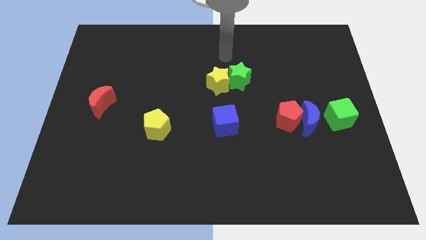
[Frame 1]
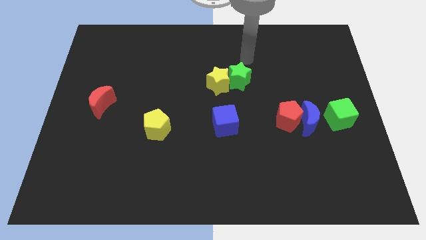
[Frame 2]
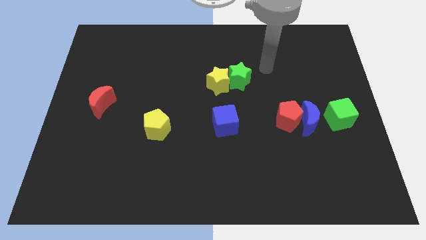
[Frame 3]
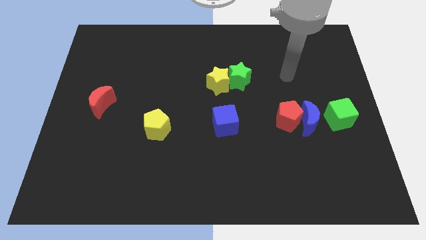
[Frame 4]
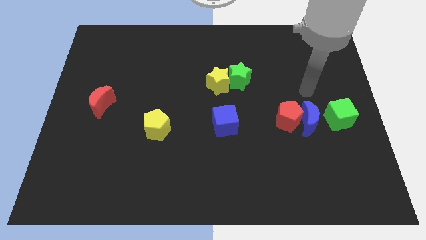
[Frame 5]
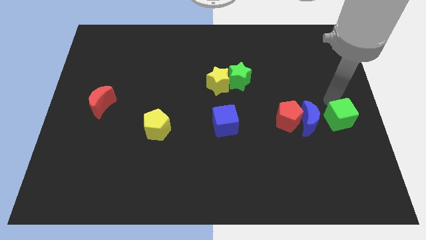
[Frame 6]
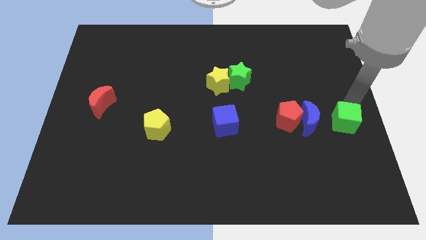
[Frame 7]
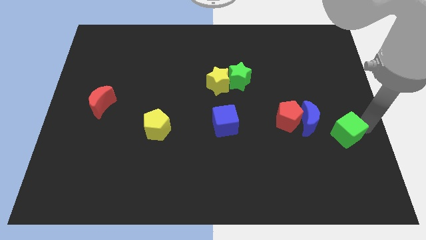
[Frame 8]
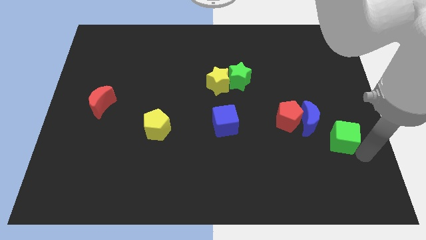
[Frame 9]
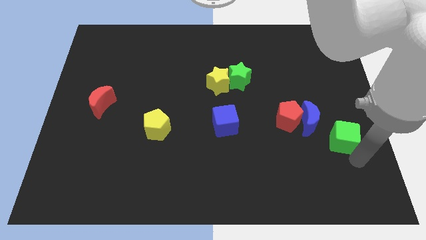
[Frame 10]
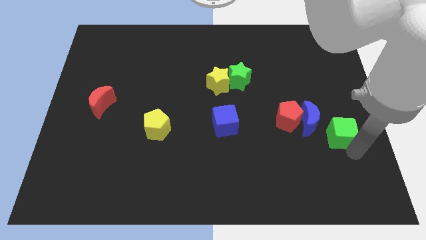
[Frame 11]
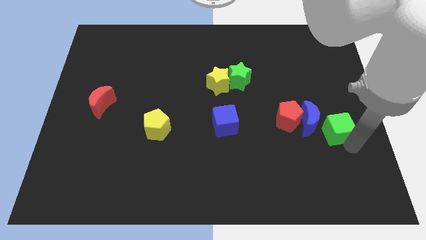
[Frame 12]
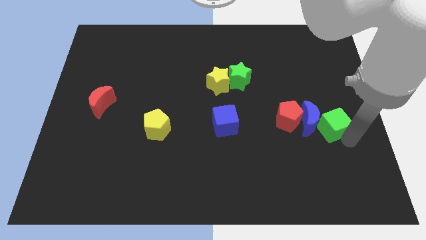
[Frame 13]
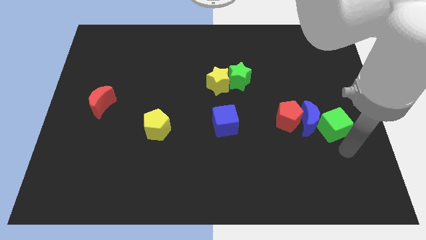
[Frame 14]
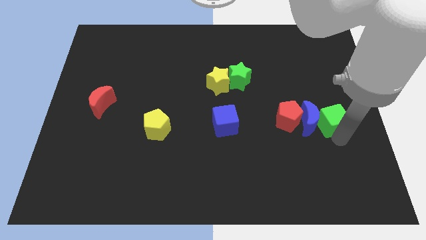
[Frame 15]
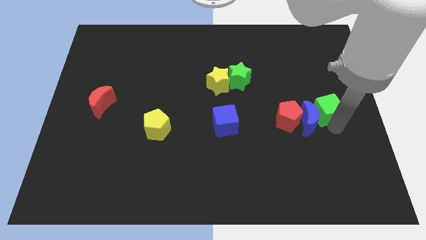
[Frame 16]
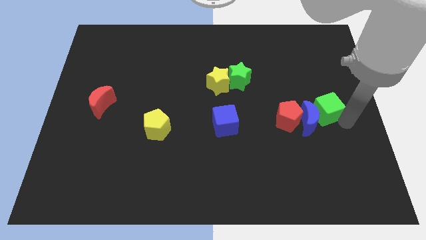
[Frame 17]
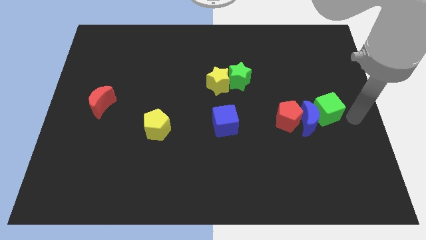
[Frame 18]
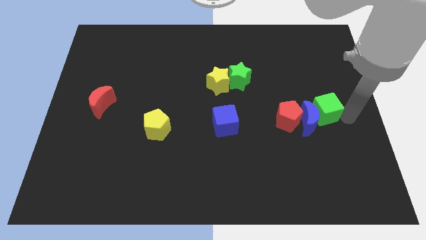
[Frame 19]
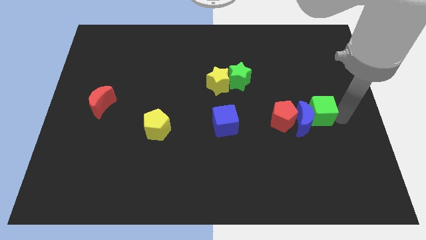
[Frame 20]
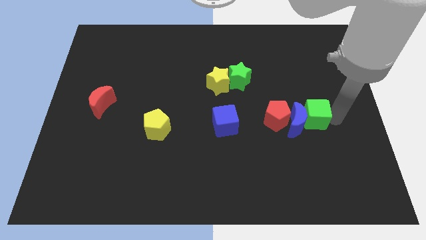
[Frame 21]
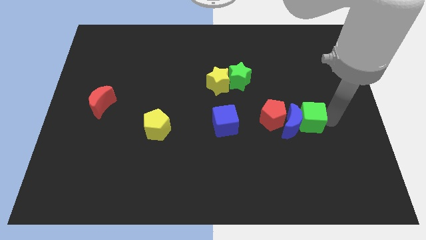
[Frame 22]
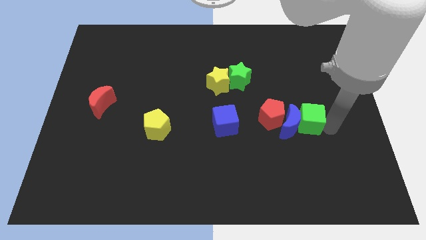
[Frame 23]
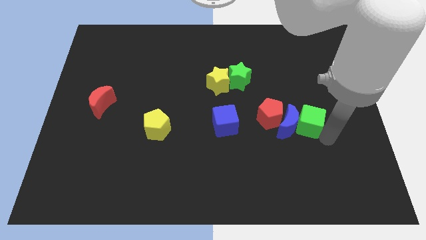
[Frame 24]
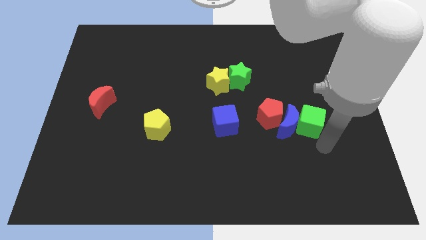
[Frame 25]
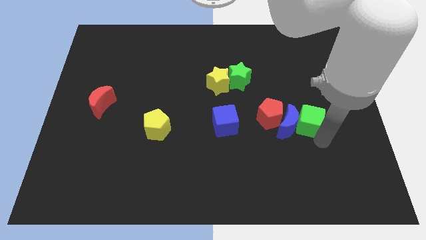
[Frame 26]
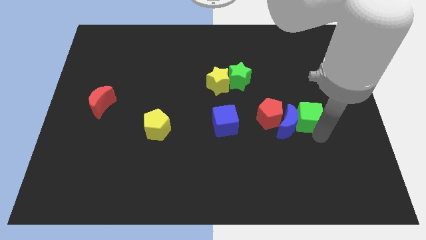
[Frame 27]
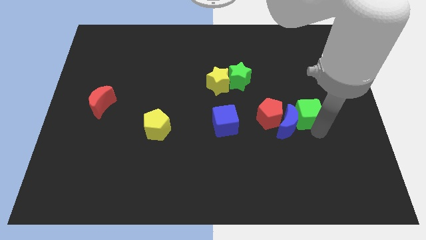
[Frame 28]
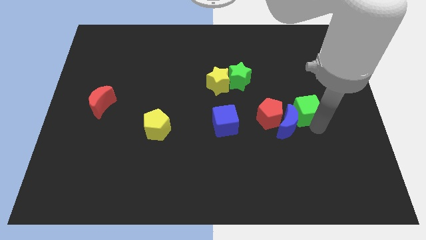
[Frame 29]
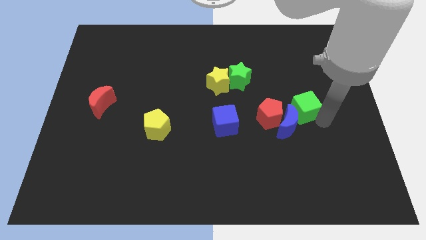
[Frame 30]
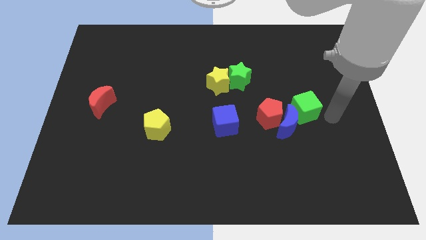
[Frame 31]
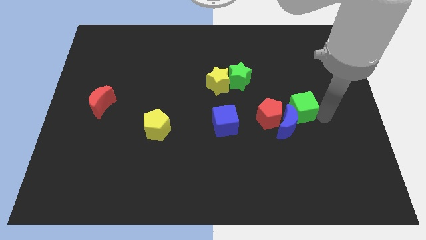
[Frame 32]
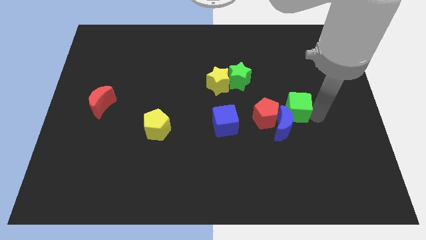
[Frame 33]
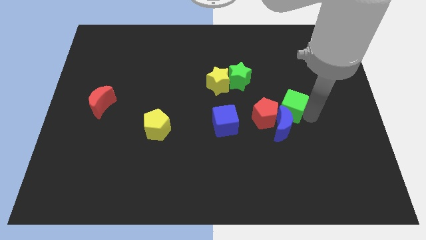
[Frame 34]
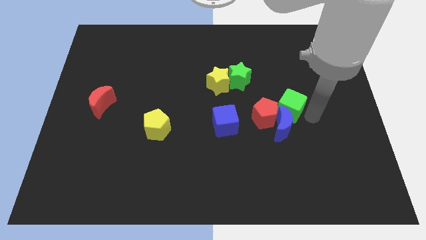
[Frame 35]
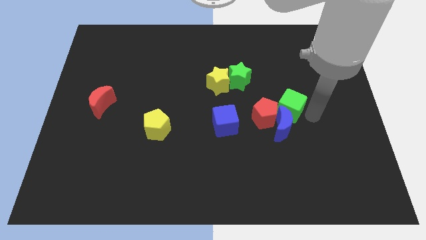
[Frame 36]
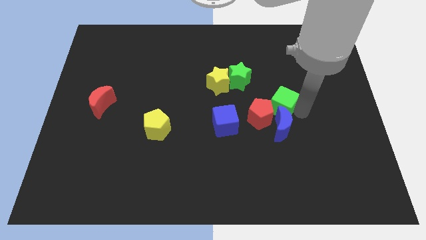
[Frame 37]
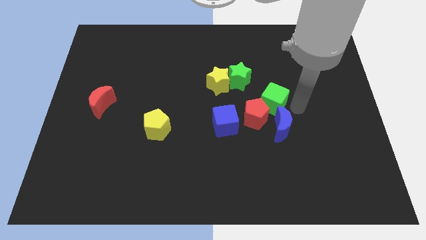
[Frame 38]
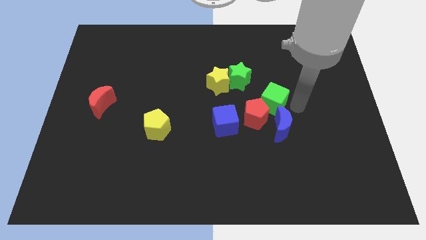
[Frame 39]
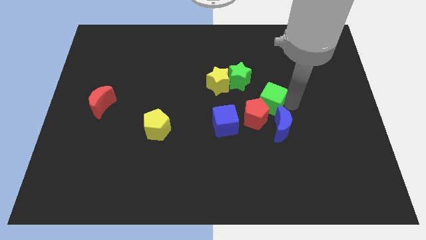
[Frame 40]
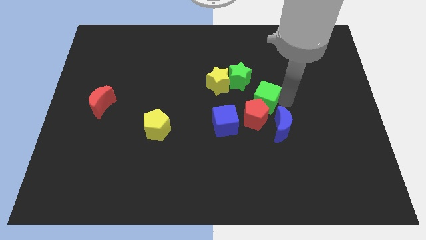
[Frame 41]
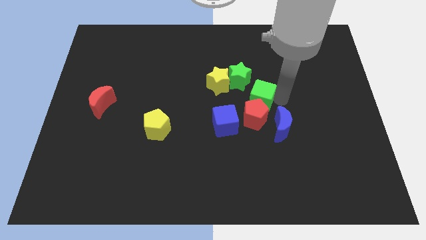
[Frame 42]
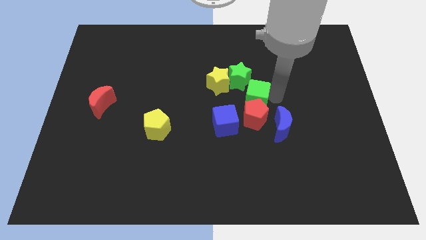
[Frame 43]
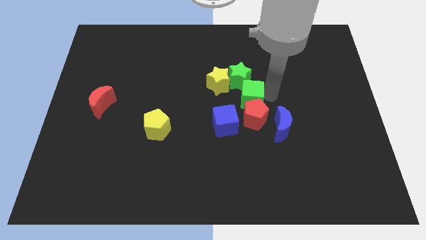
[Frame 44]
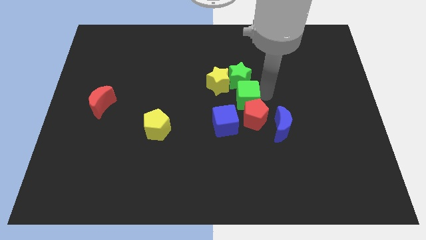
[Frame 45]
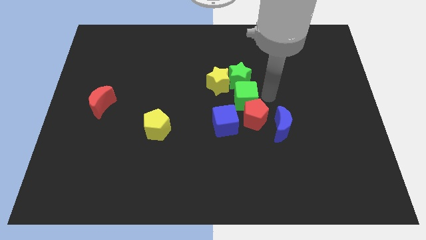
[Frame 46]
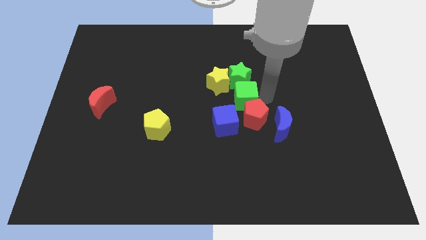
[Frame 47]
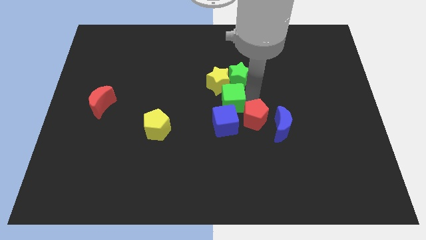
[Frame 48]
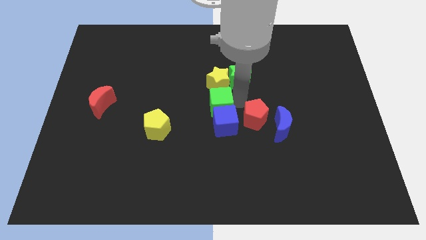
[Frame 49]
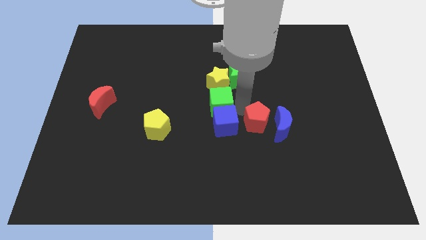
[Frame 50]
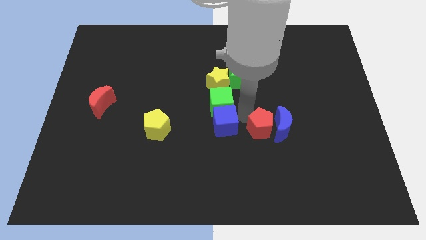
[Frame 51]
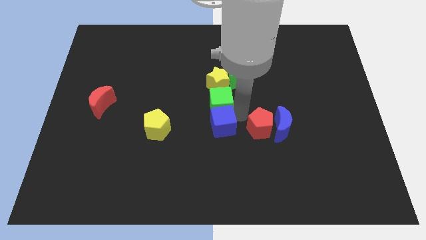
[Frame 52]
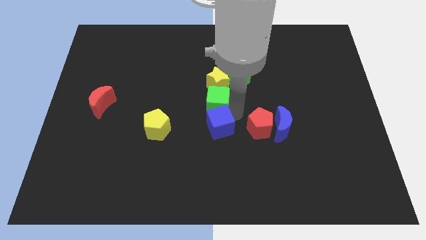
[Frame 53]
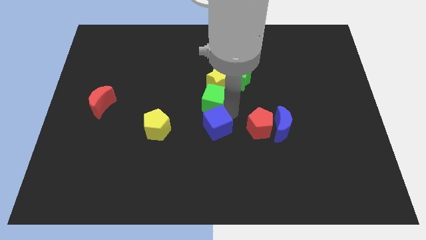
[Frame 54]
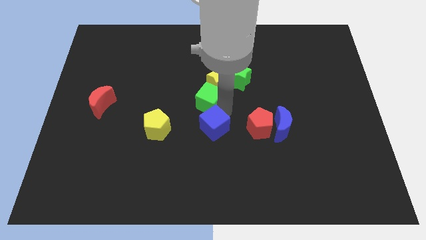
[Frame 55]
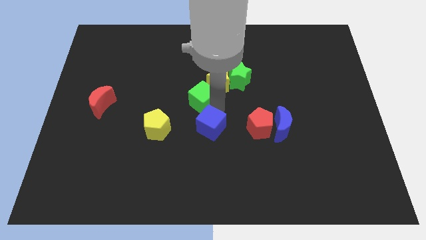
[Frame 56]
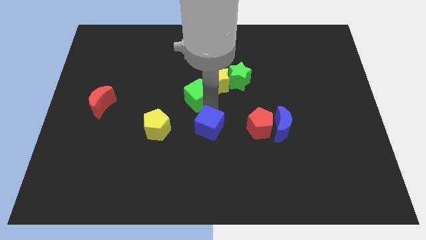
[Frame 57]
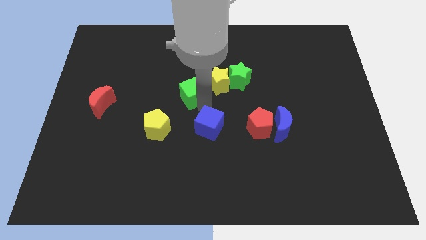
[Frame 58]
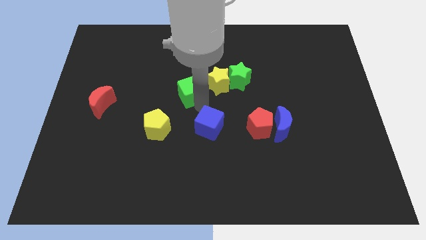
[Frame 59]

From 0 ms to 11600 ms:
move the green cube to the left side of the green star

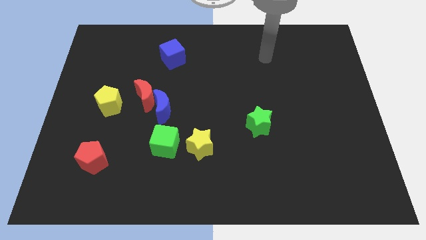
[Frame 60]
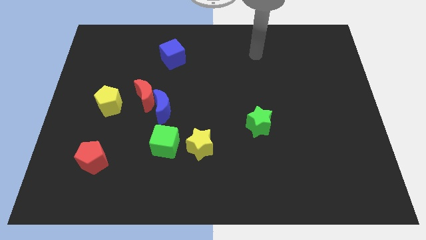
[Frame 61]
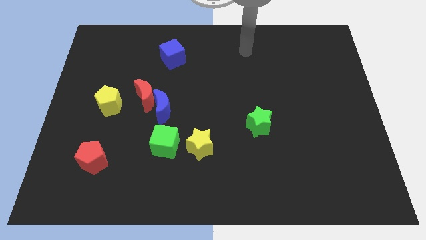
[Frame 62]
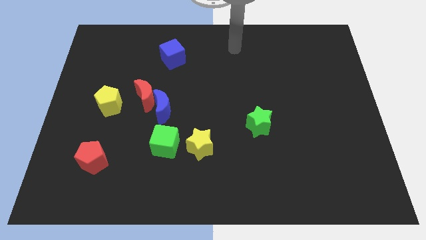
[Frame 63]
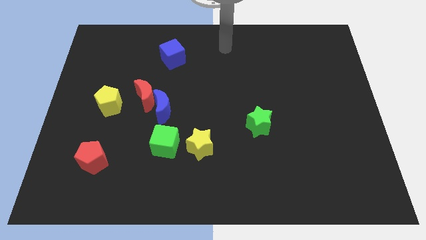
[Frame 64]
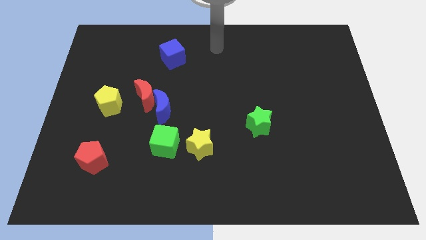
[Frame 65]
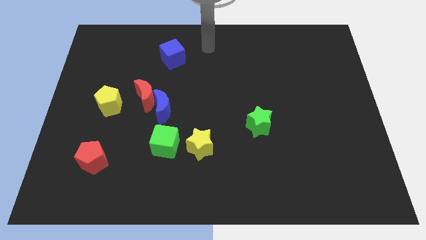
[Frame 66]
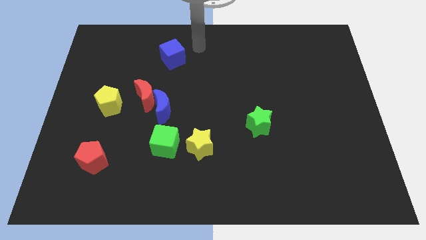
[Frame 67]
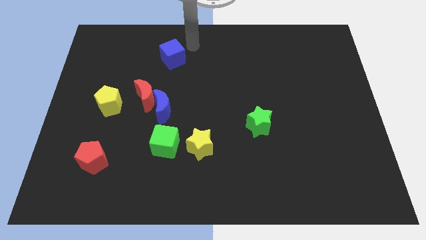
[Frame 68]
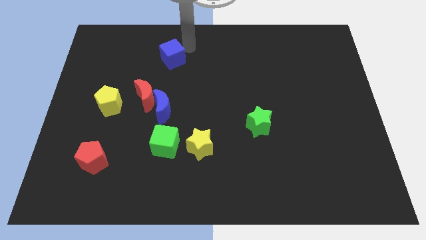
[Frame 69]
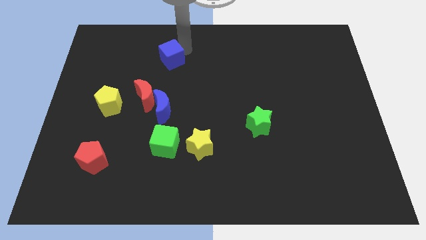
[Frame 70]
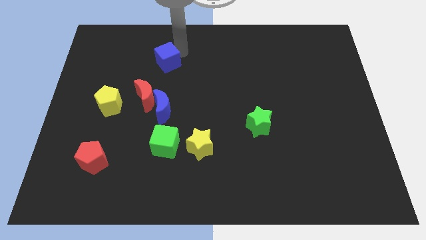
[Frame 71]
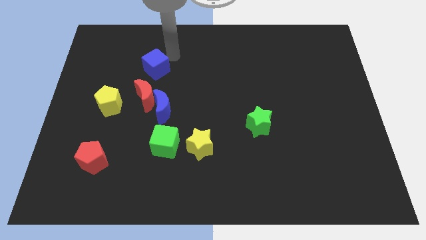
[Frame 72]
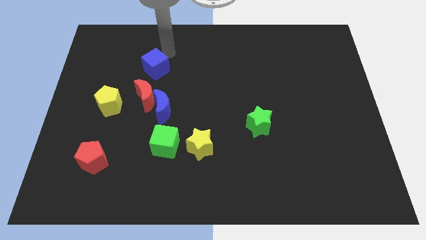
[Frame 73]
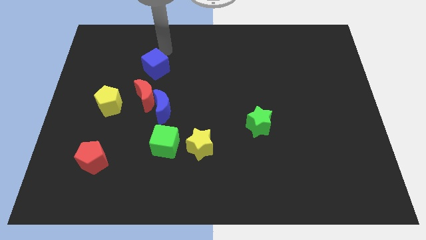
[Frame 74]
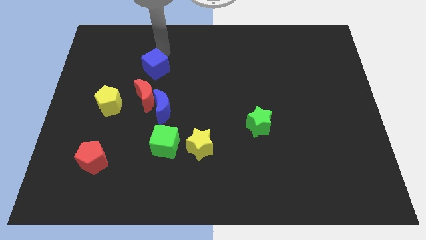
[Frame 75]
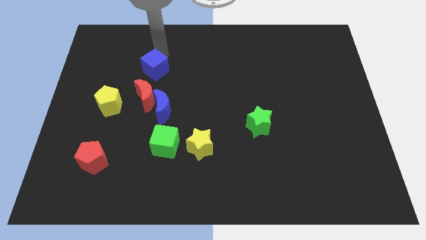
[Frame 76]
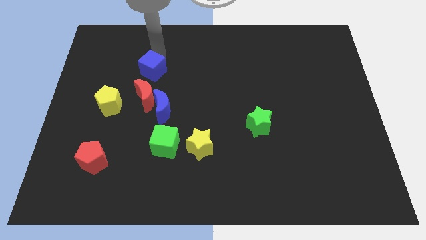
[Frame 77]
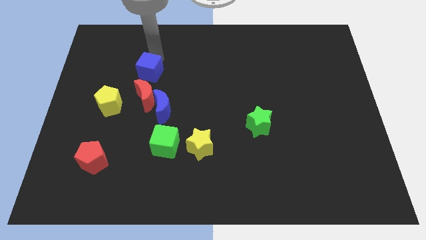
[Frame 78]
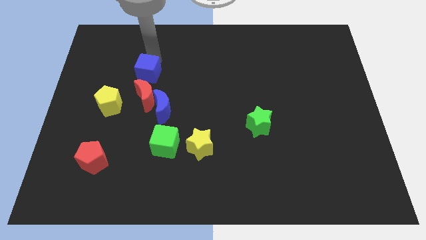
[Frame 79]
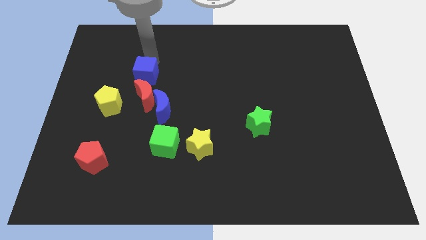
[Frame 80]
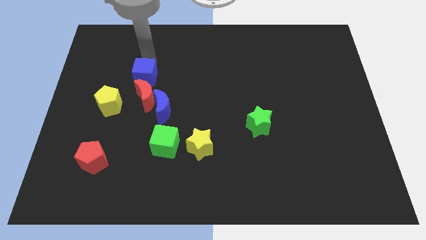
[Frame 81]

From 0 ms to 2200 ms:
push the blue cube diagonally up and to the left of the blue moon
